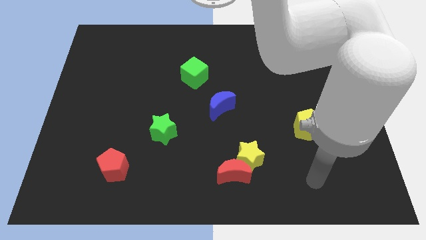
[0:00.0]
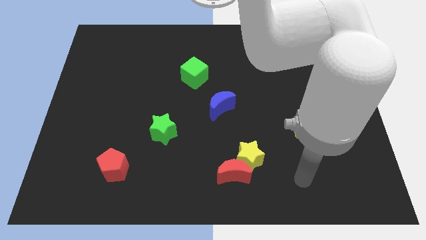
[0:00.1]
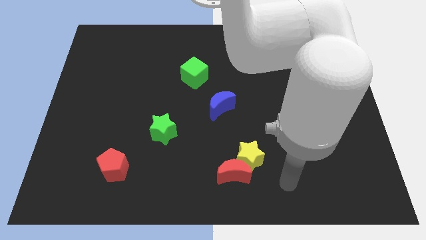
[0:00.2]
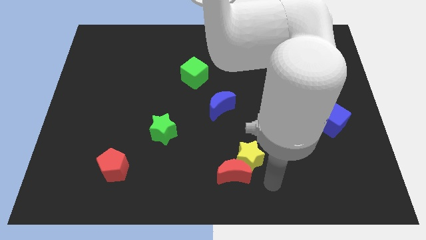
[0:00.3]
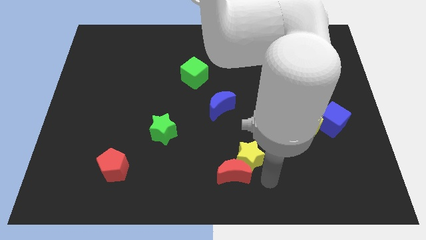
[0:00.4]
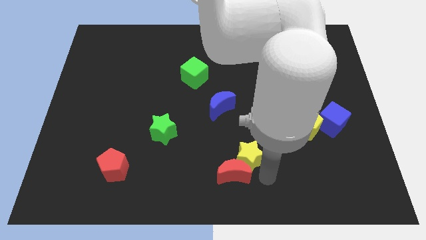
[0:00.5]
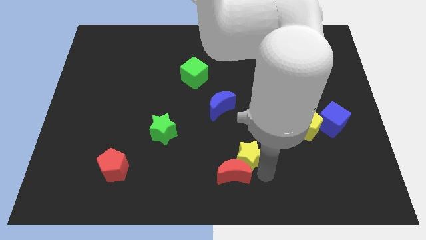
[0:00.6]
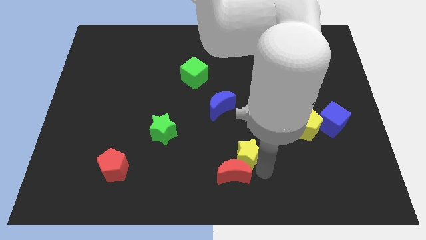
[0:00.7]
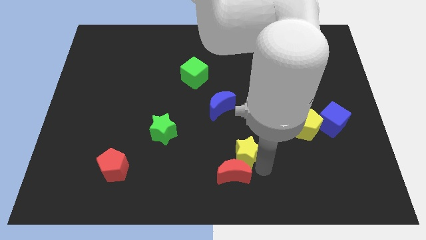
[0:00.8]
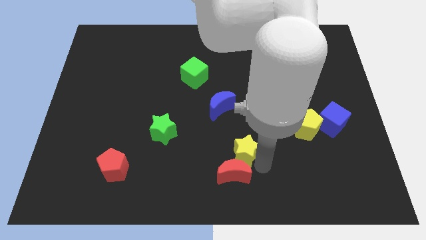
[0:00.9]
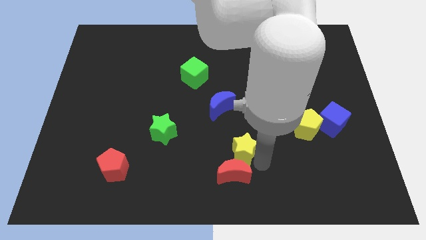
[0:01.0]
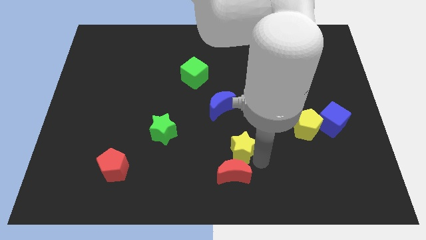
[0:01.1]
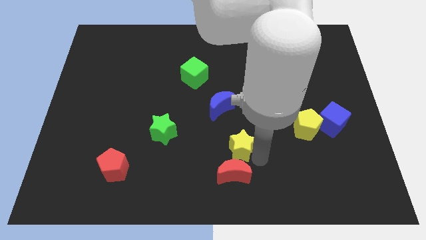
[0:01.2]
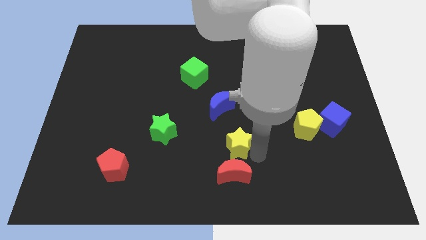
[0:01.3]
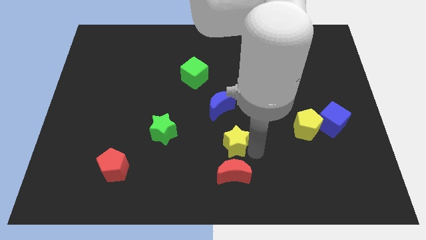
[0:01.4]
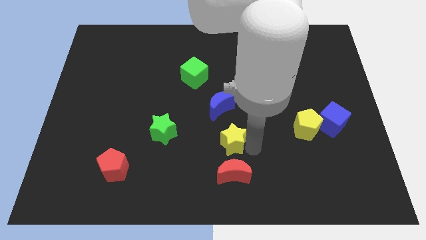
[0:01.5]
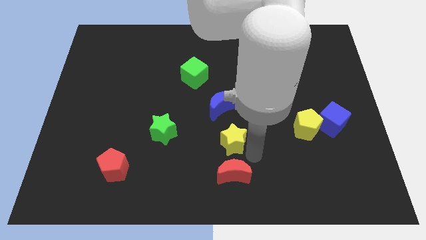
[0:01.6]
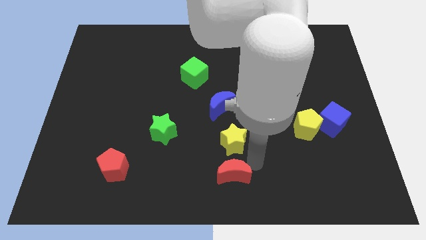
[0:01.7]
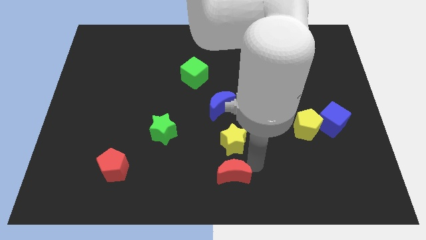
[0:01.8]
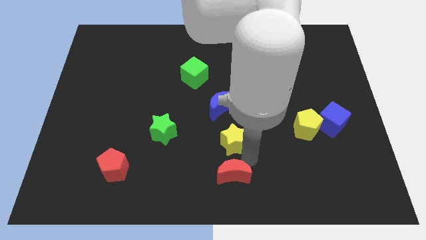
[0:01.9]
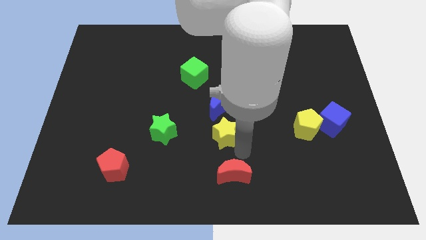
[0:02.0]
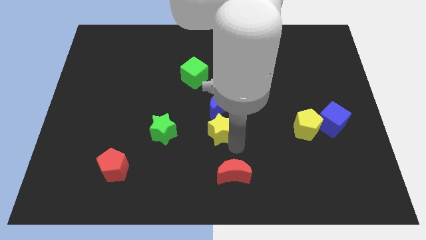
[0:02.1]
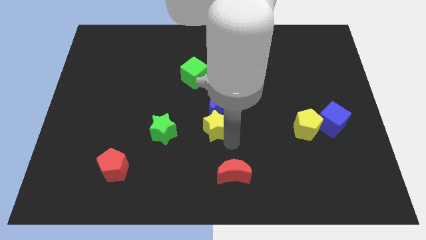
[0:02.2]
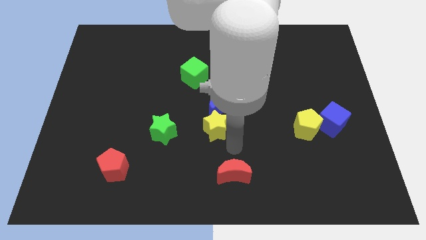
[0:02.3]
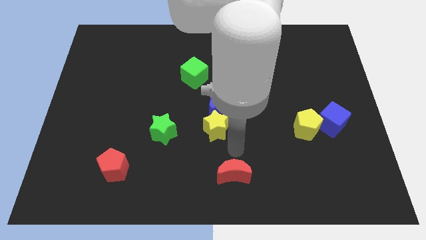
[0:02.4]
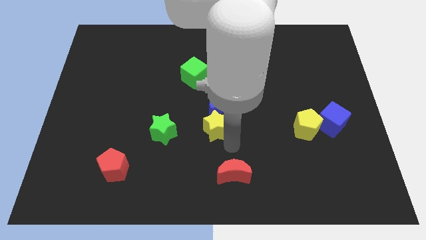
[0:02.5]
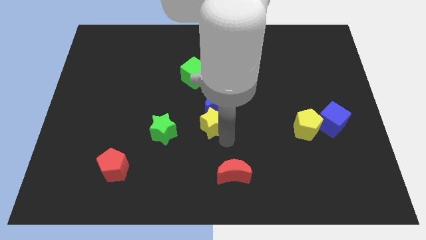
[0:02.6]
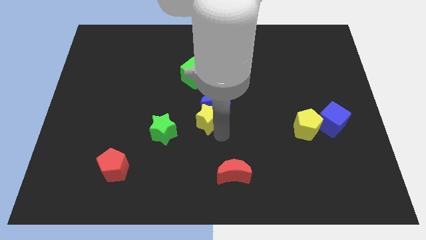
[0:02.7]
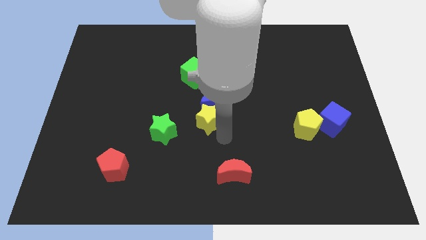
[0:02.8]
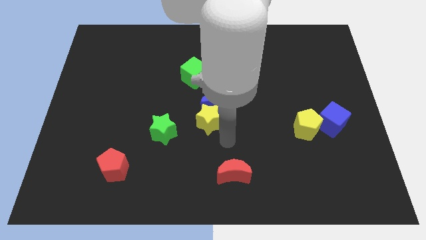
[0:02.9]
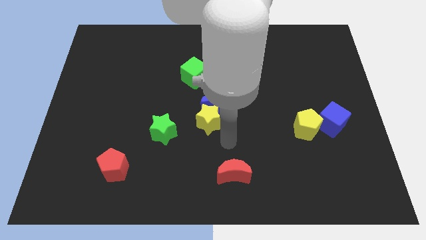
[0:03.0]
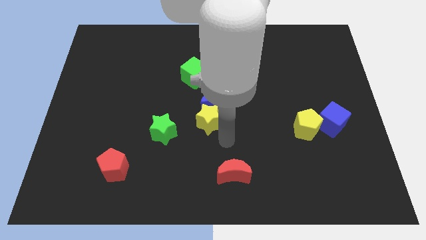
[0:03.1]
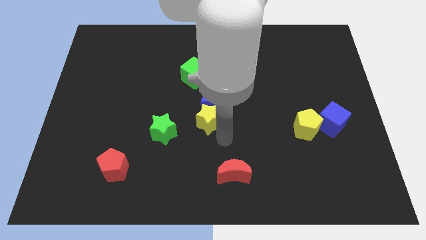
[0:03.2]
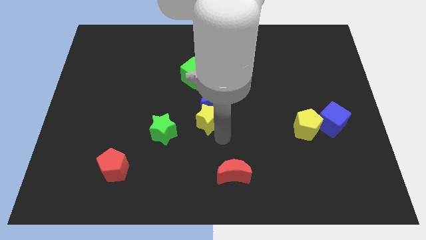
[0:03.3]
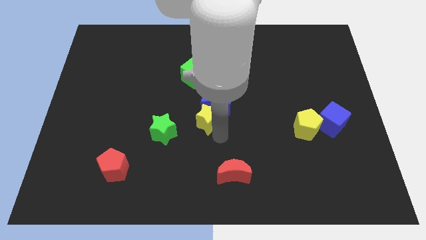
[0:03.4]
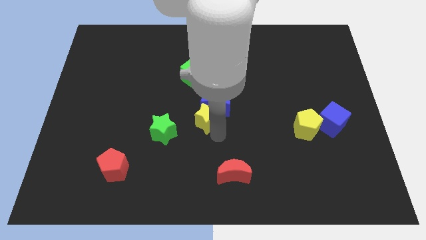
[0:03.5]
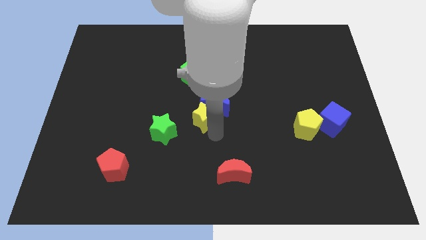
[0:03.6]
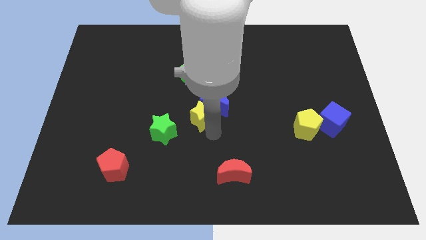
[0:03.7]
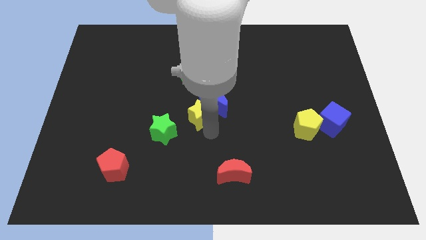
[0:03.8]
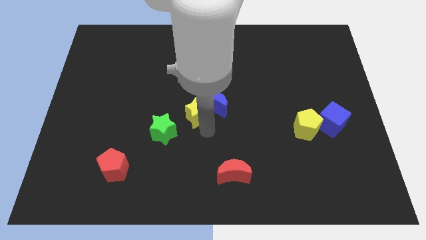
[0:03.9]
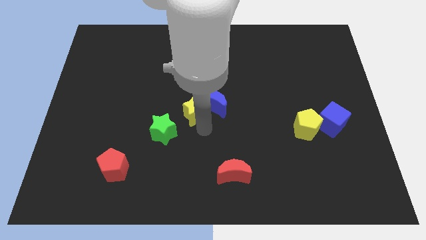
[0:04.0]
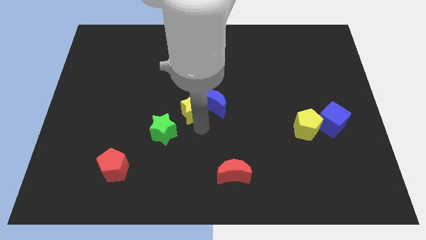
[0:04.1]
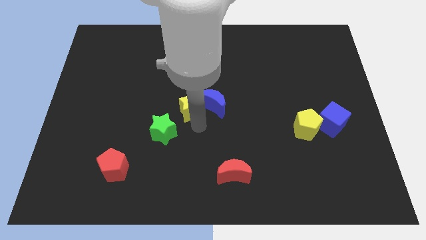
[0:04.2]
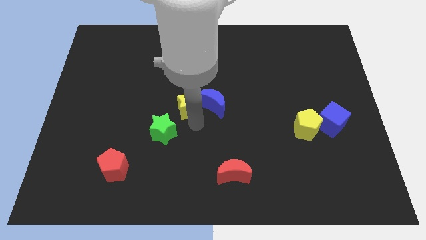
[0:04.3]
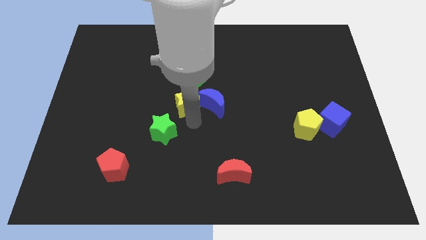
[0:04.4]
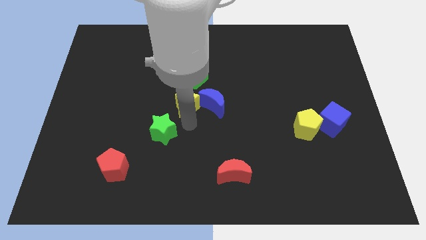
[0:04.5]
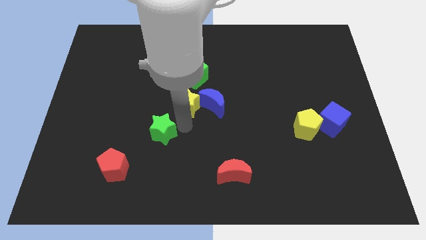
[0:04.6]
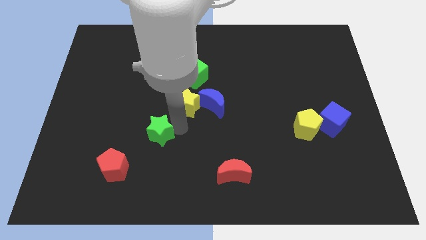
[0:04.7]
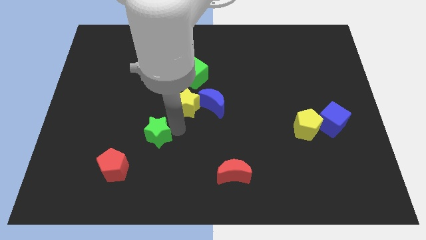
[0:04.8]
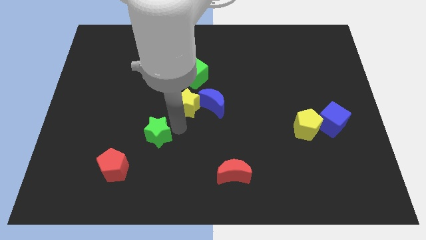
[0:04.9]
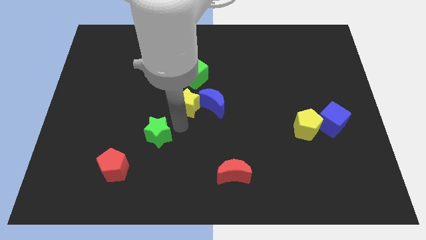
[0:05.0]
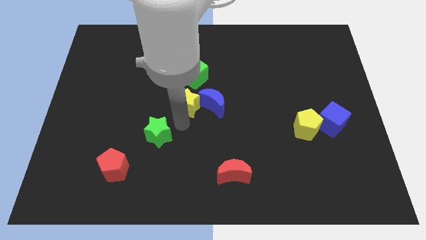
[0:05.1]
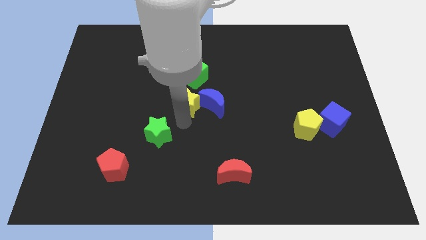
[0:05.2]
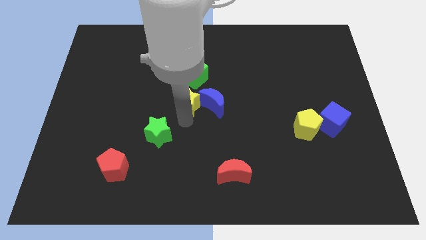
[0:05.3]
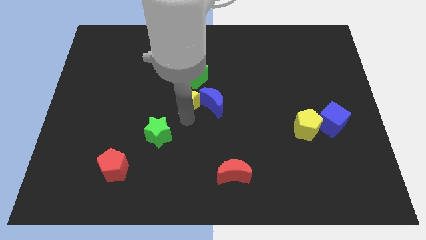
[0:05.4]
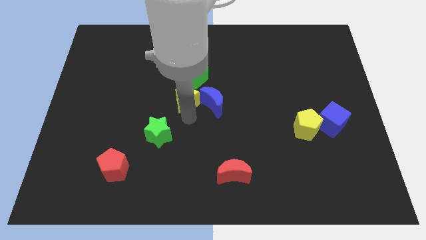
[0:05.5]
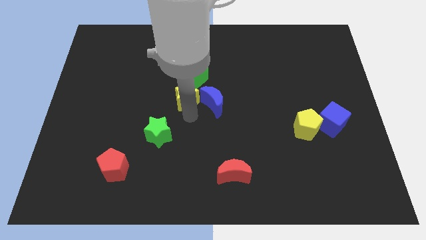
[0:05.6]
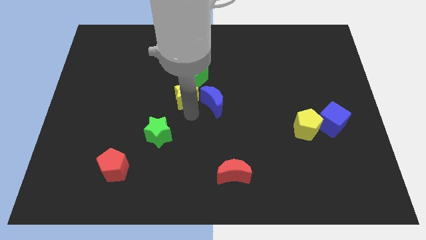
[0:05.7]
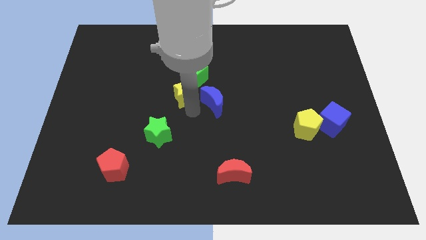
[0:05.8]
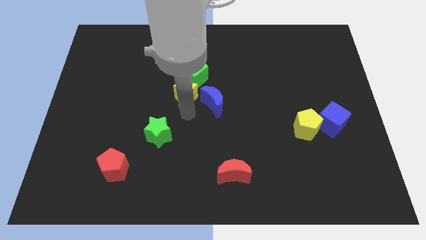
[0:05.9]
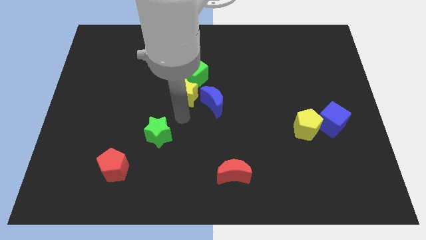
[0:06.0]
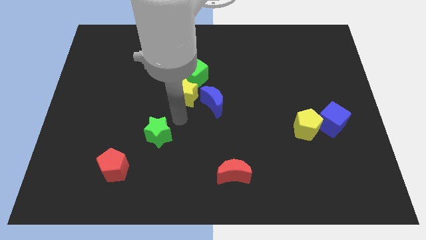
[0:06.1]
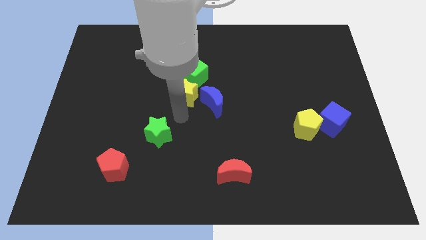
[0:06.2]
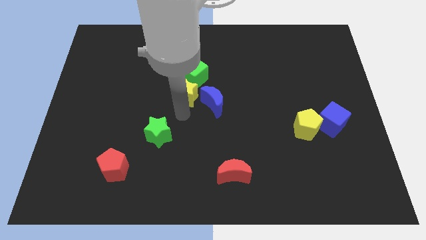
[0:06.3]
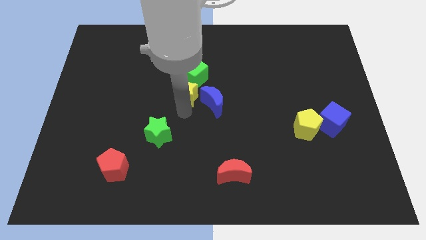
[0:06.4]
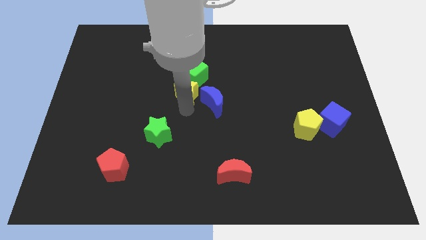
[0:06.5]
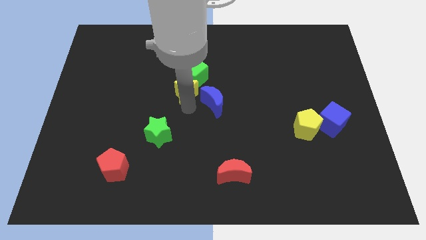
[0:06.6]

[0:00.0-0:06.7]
move the yellow star to the green cube
